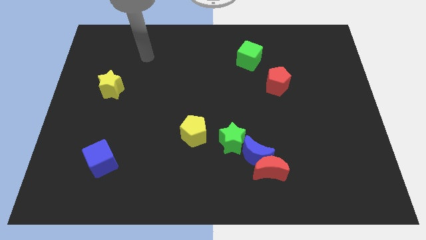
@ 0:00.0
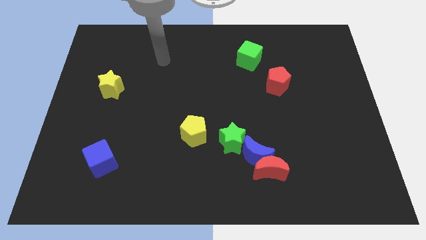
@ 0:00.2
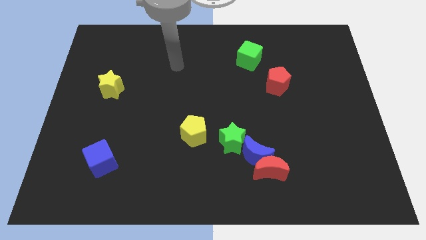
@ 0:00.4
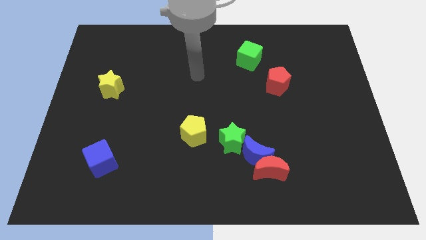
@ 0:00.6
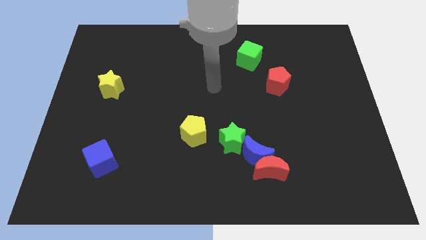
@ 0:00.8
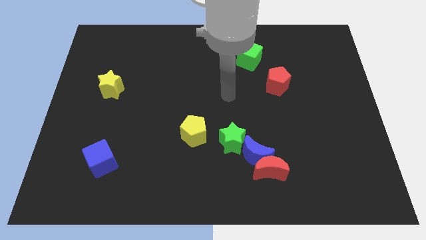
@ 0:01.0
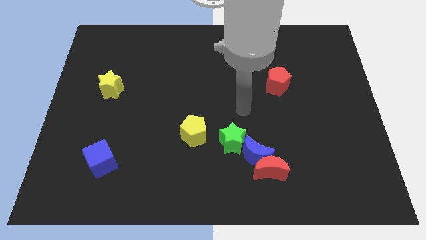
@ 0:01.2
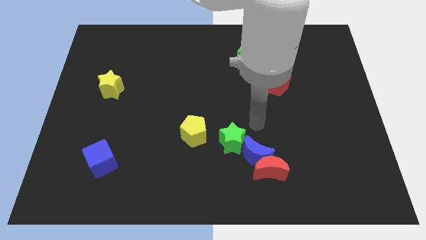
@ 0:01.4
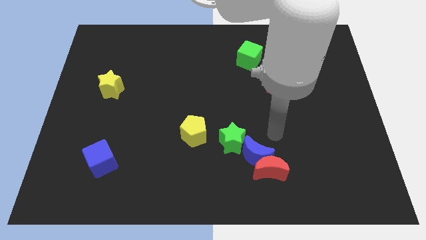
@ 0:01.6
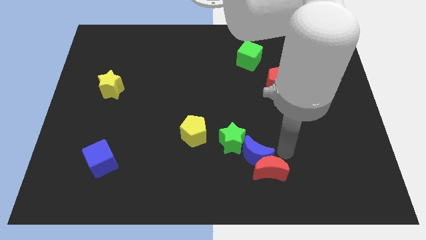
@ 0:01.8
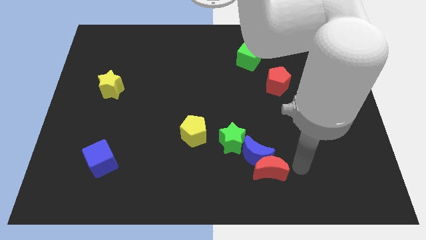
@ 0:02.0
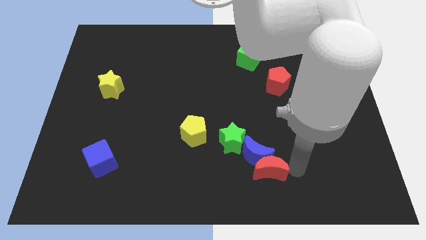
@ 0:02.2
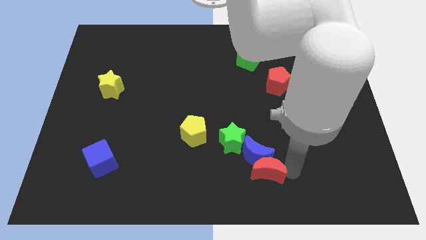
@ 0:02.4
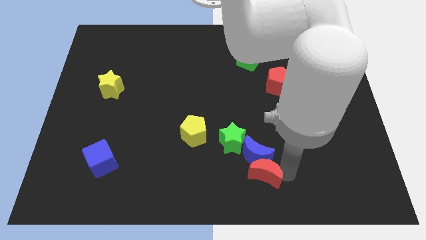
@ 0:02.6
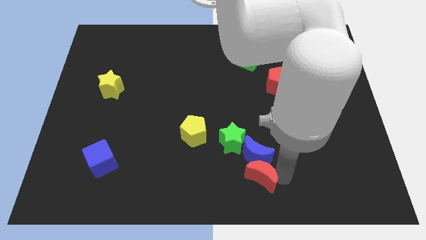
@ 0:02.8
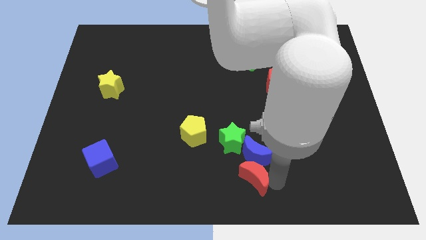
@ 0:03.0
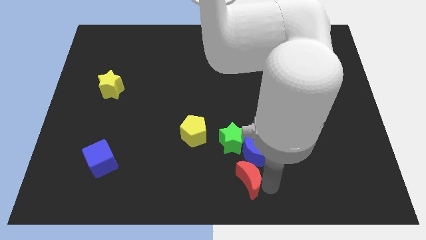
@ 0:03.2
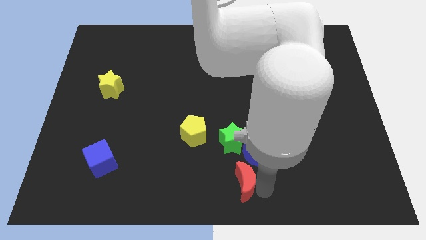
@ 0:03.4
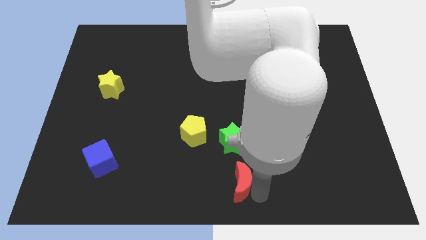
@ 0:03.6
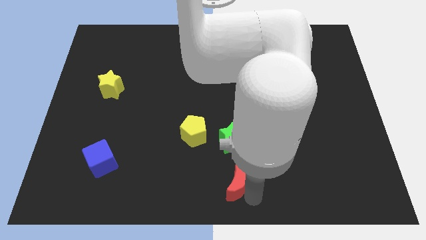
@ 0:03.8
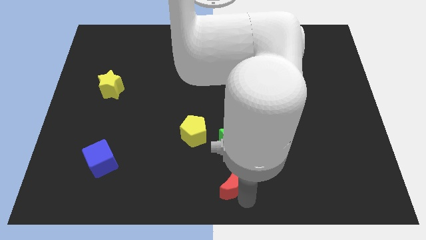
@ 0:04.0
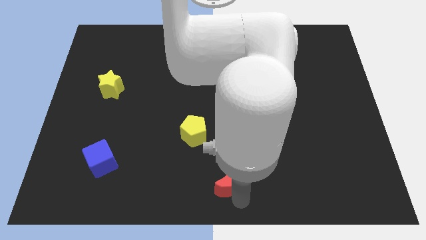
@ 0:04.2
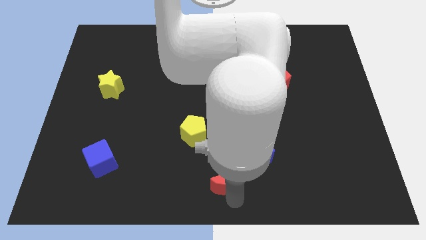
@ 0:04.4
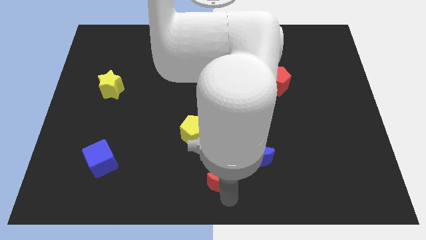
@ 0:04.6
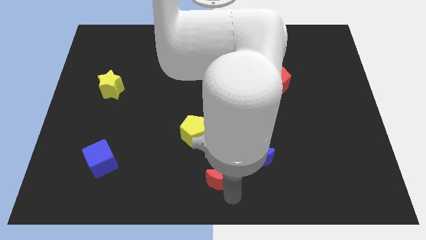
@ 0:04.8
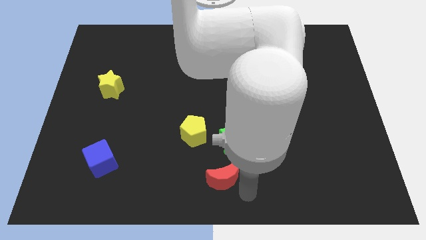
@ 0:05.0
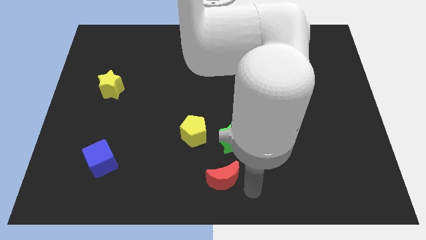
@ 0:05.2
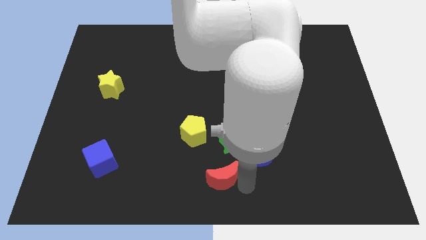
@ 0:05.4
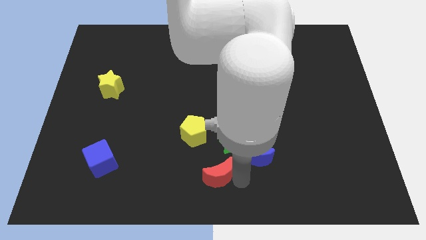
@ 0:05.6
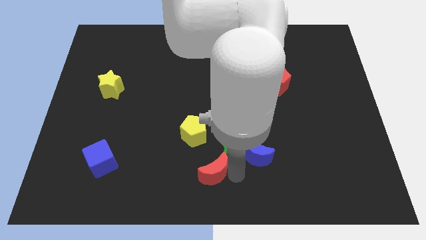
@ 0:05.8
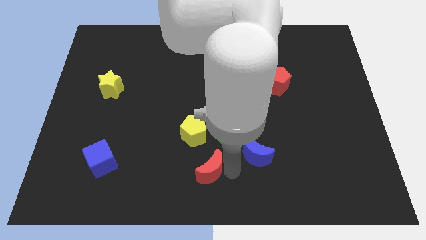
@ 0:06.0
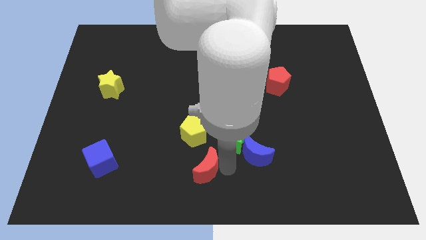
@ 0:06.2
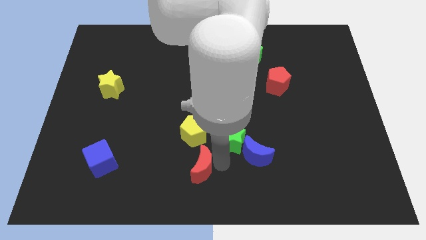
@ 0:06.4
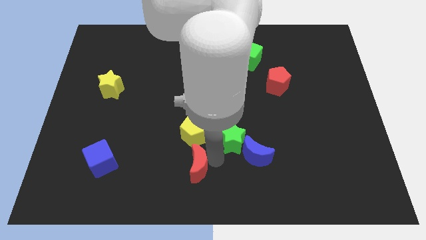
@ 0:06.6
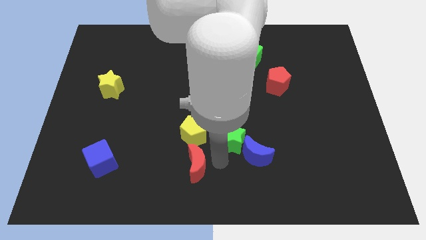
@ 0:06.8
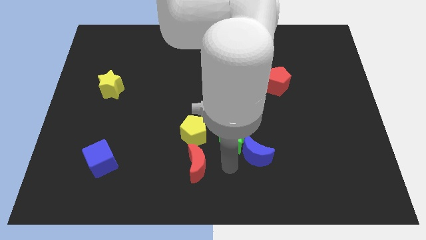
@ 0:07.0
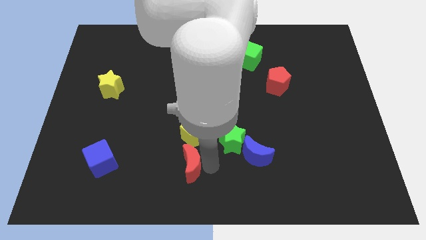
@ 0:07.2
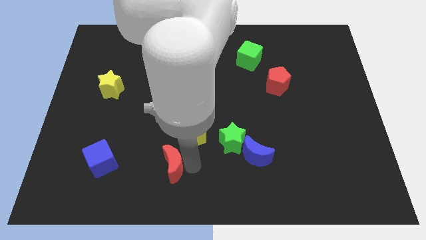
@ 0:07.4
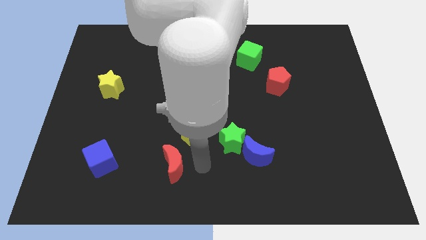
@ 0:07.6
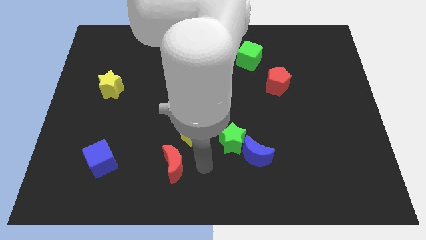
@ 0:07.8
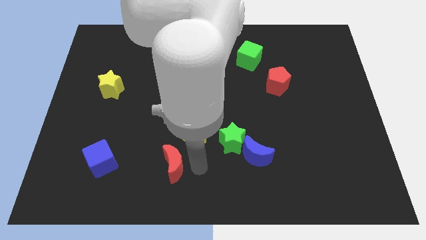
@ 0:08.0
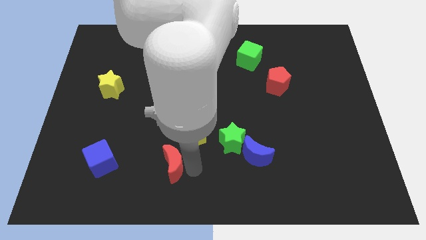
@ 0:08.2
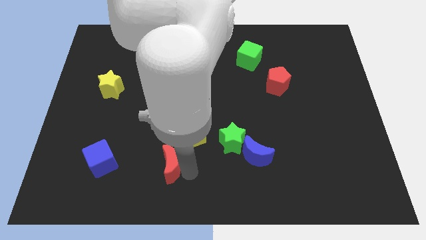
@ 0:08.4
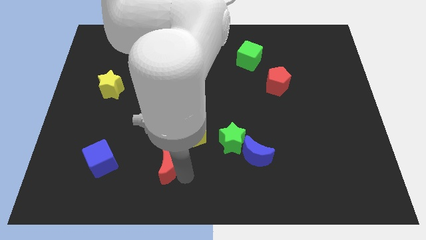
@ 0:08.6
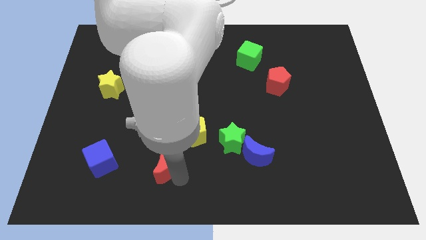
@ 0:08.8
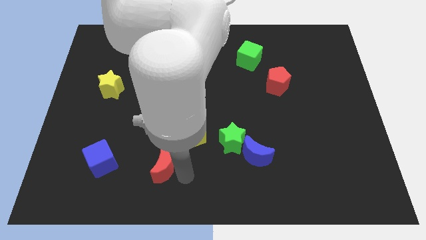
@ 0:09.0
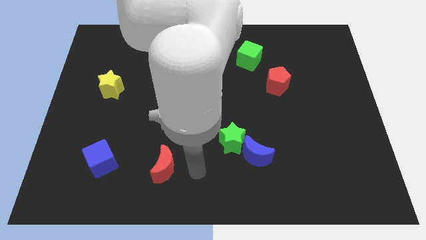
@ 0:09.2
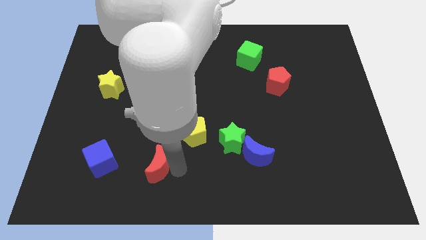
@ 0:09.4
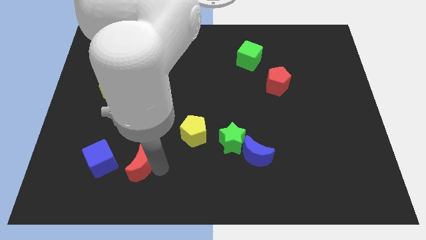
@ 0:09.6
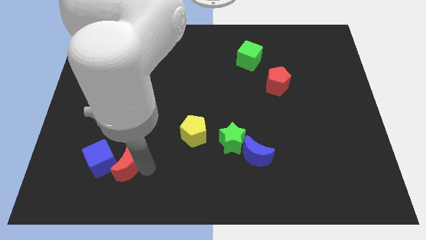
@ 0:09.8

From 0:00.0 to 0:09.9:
move the red moon next to the blue cube

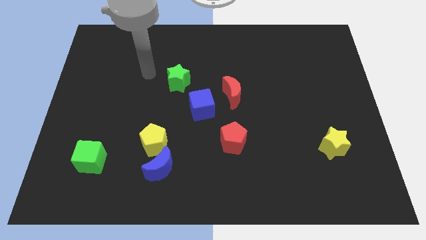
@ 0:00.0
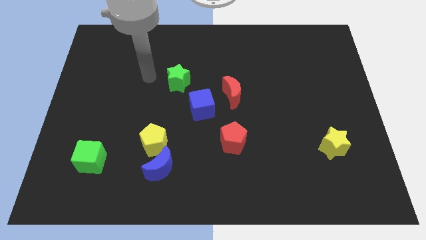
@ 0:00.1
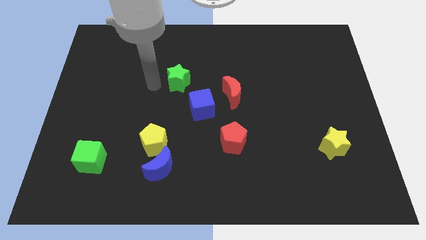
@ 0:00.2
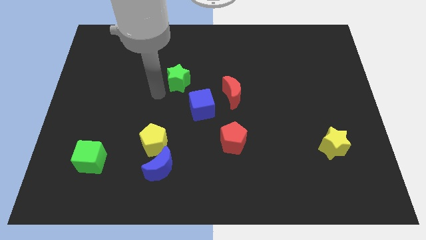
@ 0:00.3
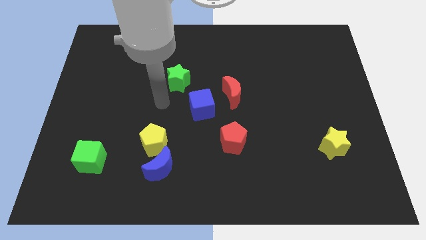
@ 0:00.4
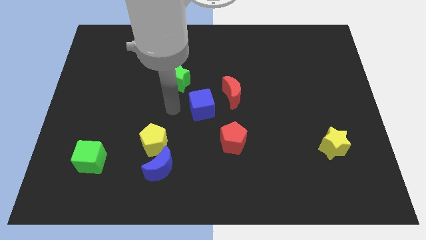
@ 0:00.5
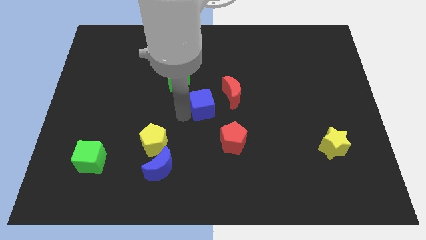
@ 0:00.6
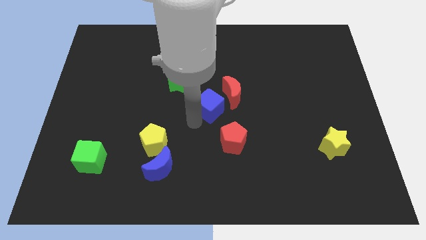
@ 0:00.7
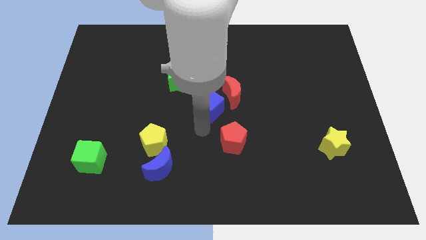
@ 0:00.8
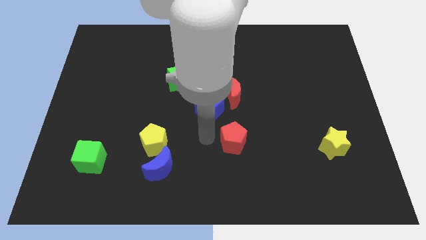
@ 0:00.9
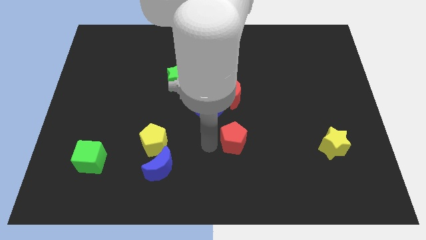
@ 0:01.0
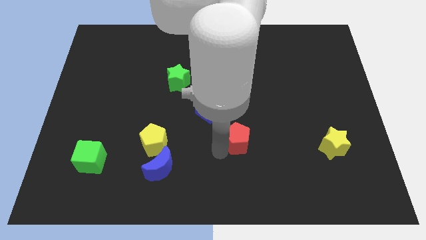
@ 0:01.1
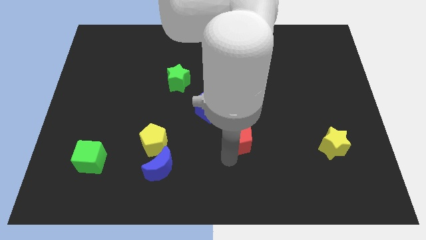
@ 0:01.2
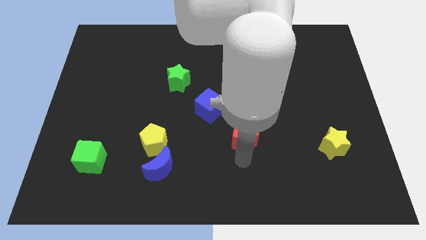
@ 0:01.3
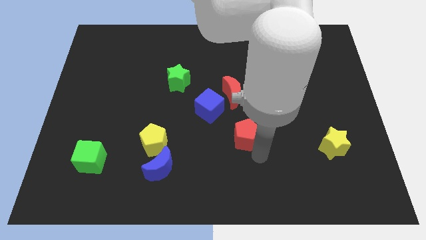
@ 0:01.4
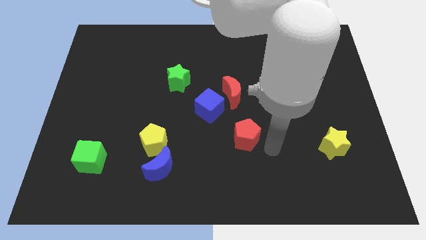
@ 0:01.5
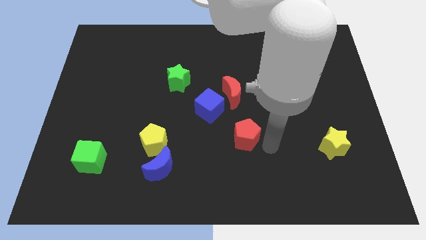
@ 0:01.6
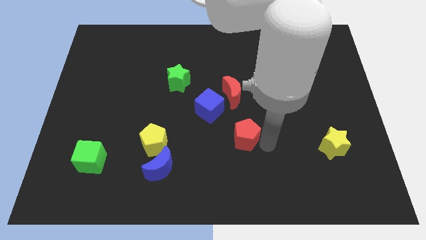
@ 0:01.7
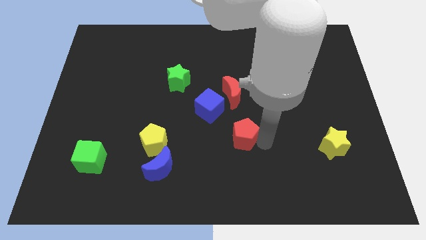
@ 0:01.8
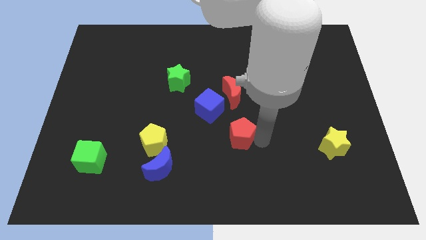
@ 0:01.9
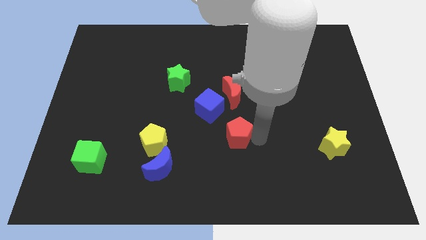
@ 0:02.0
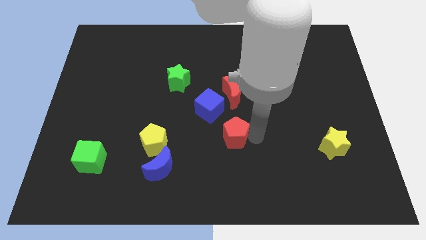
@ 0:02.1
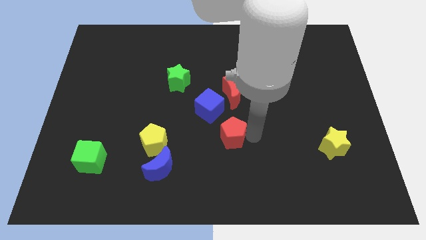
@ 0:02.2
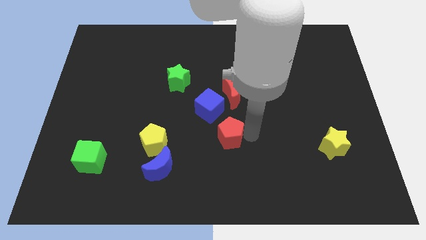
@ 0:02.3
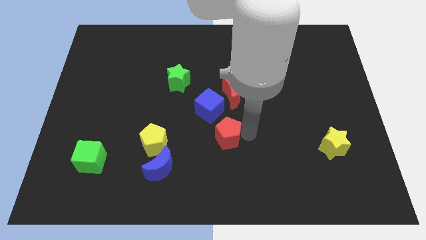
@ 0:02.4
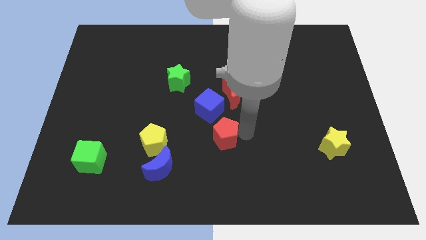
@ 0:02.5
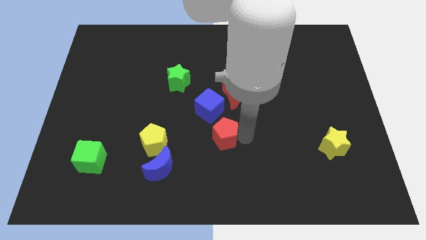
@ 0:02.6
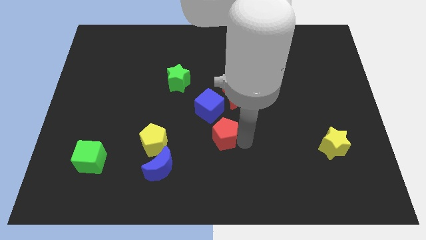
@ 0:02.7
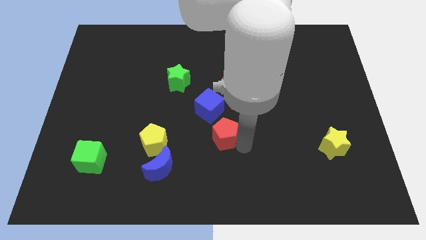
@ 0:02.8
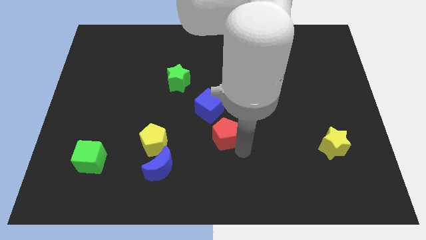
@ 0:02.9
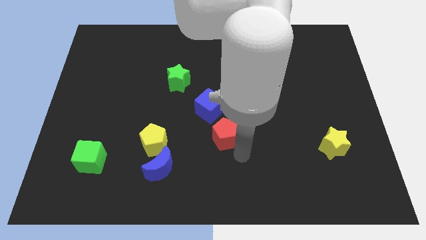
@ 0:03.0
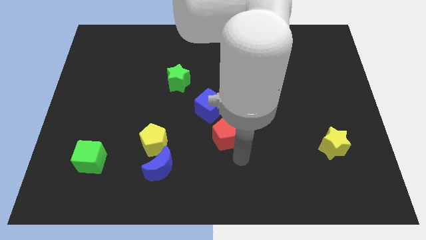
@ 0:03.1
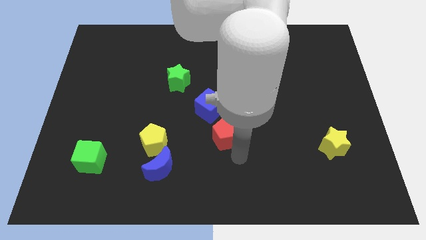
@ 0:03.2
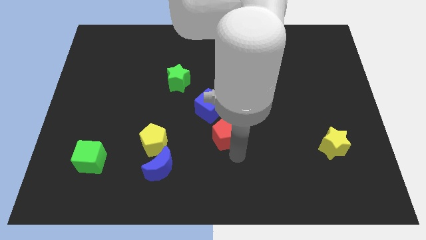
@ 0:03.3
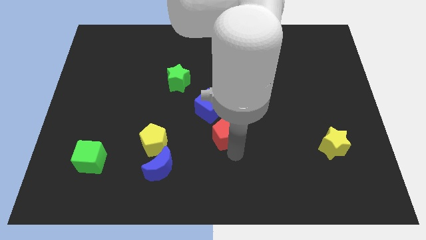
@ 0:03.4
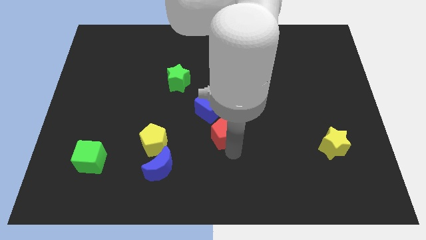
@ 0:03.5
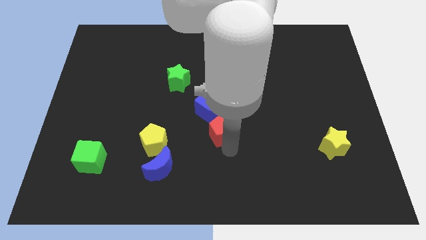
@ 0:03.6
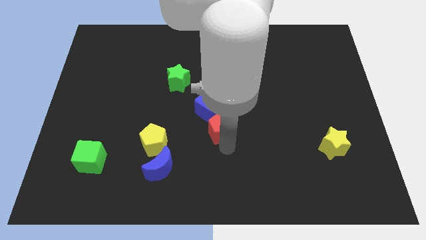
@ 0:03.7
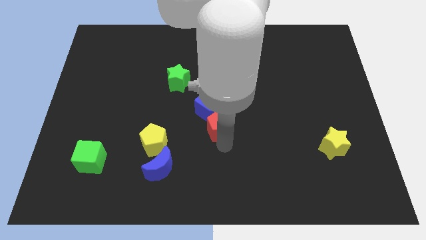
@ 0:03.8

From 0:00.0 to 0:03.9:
slide the red pentagon next to the blue cube
